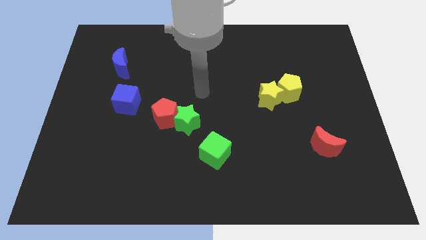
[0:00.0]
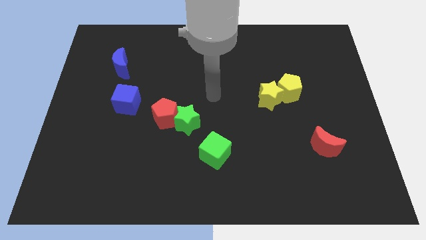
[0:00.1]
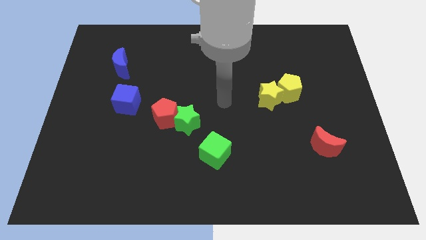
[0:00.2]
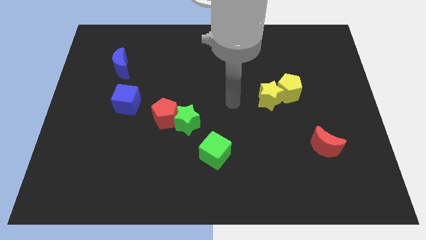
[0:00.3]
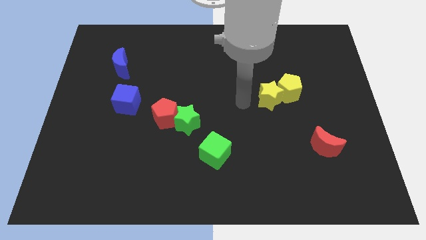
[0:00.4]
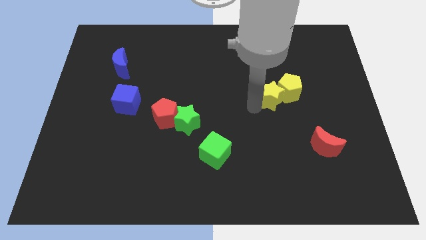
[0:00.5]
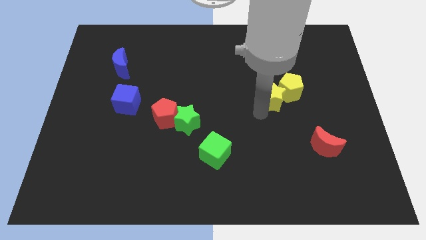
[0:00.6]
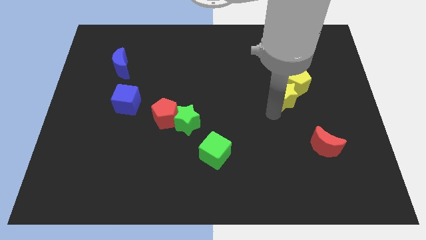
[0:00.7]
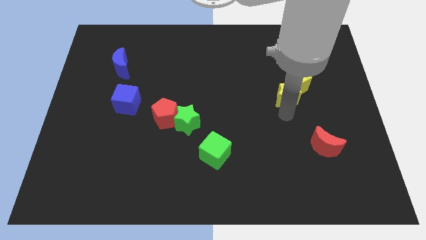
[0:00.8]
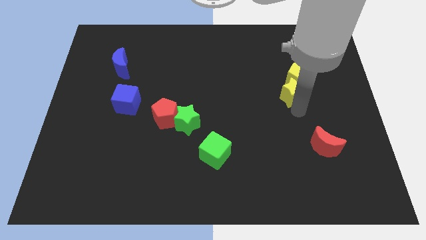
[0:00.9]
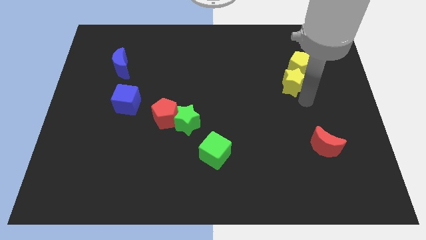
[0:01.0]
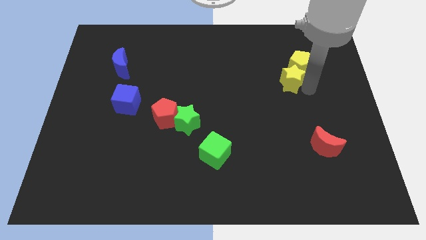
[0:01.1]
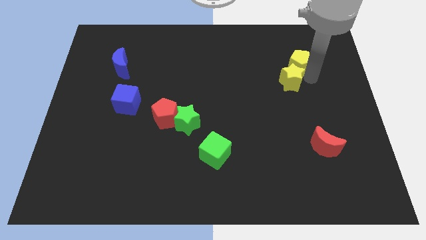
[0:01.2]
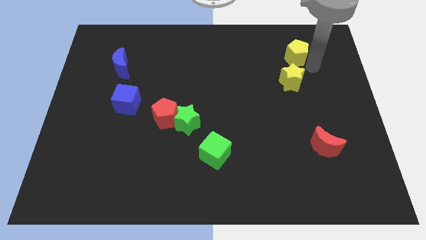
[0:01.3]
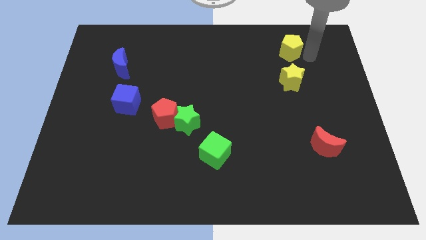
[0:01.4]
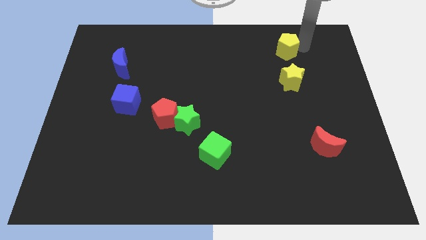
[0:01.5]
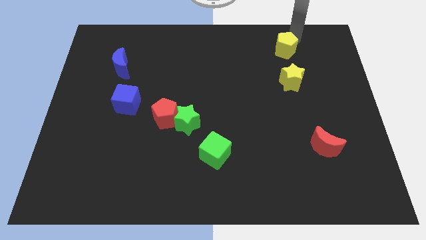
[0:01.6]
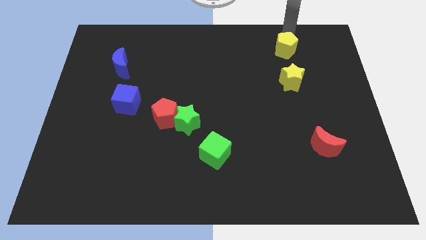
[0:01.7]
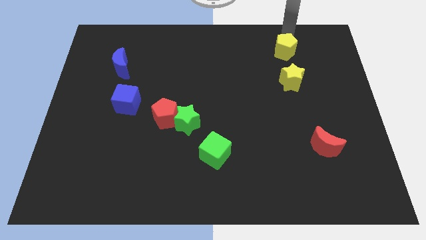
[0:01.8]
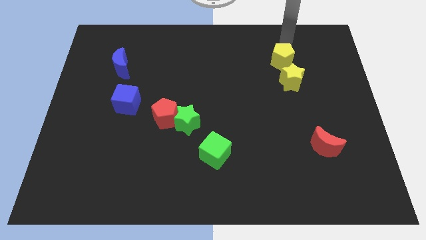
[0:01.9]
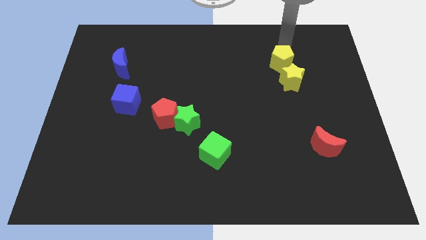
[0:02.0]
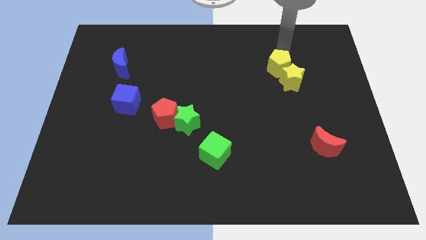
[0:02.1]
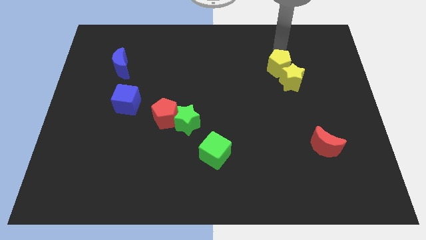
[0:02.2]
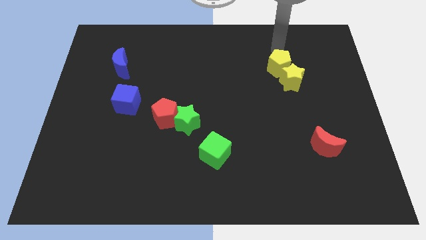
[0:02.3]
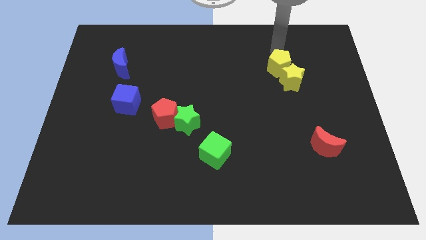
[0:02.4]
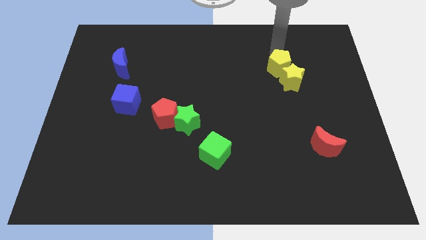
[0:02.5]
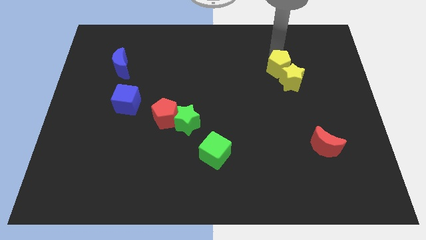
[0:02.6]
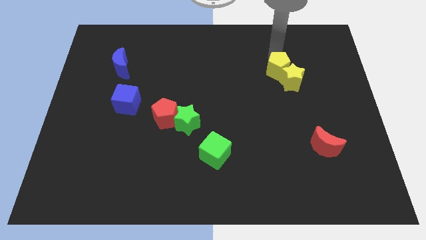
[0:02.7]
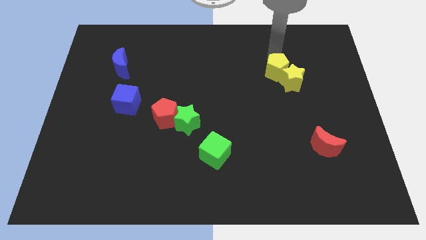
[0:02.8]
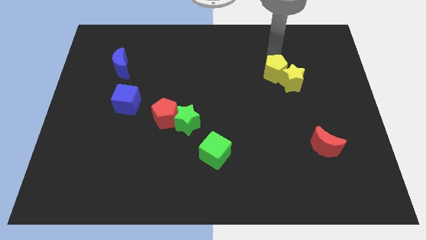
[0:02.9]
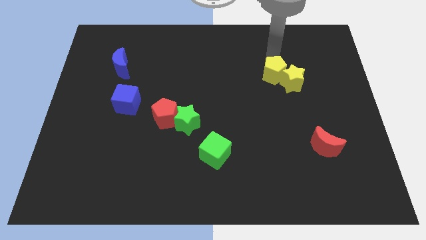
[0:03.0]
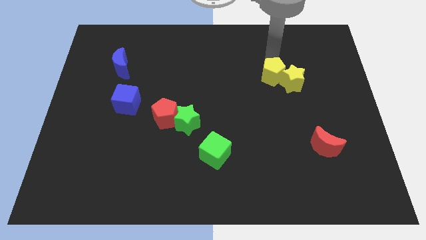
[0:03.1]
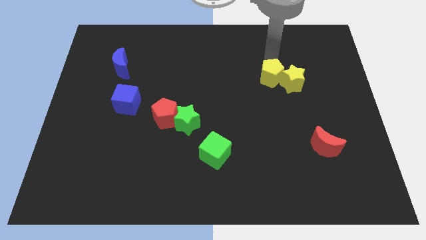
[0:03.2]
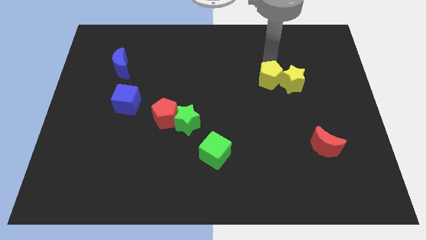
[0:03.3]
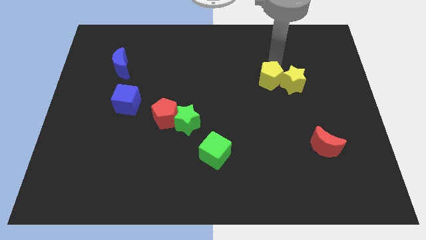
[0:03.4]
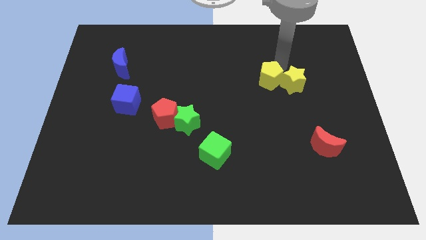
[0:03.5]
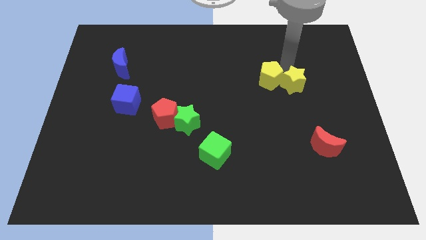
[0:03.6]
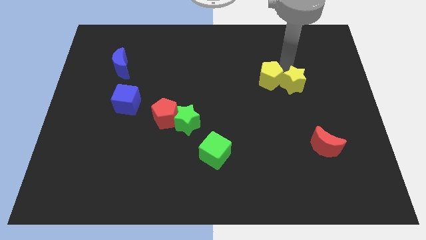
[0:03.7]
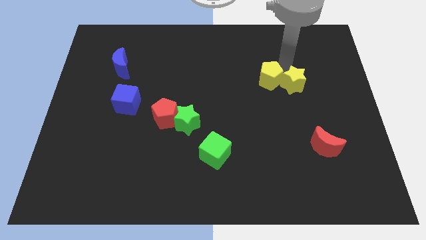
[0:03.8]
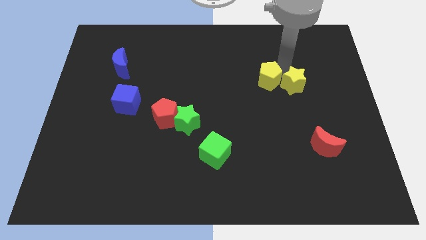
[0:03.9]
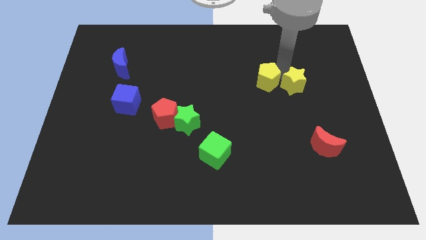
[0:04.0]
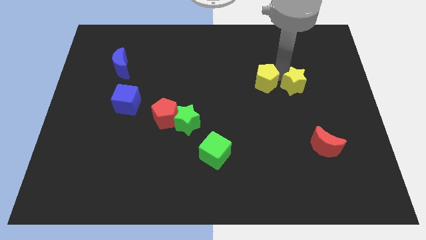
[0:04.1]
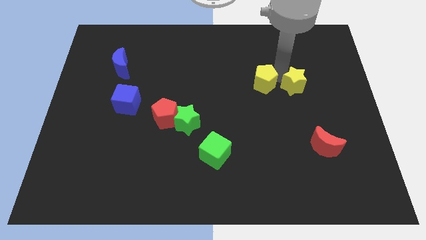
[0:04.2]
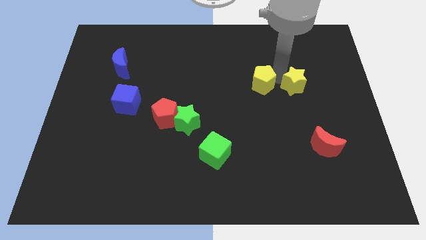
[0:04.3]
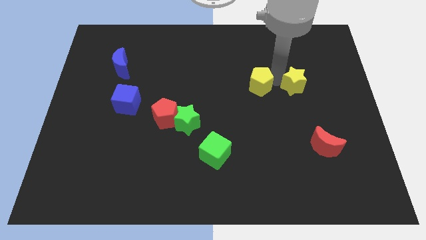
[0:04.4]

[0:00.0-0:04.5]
slightly slide the yellow pentagon left

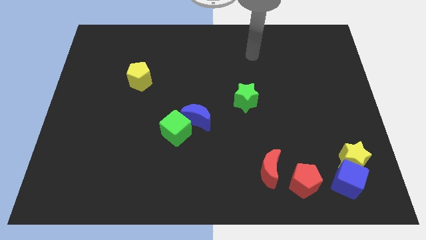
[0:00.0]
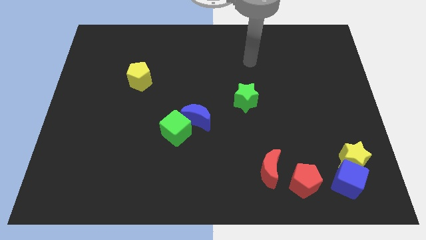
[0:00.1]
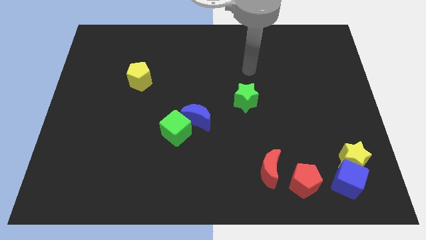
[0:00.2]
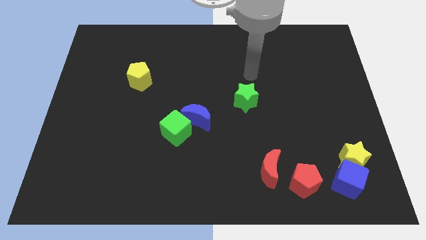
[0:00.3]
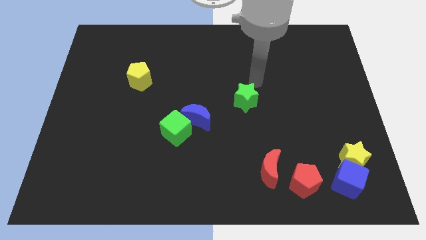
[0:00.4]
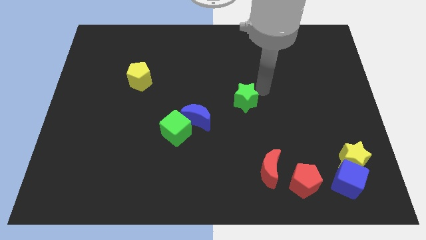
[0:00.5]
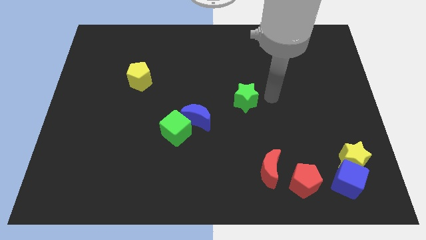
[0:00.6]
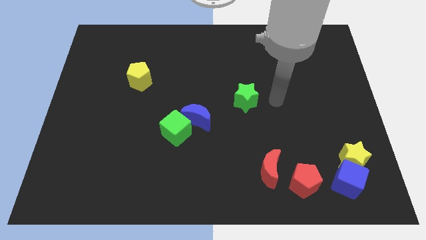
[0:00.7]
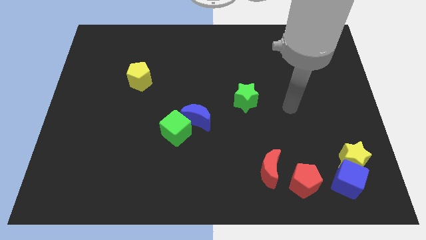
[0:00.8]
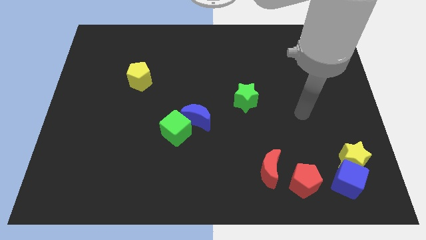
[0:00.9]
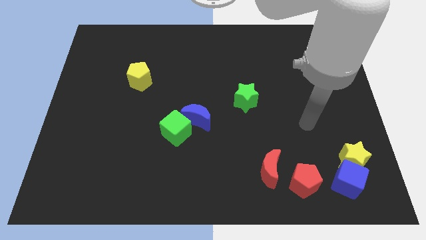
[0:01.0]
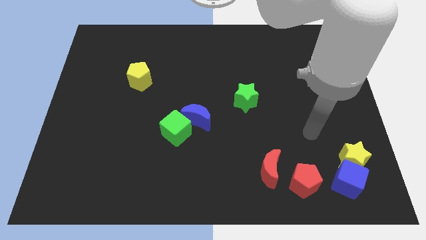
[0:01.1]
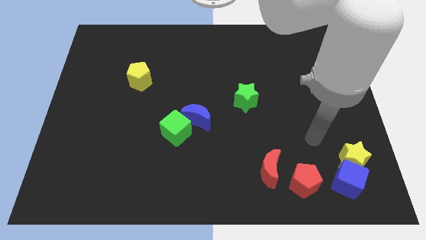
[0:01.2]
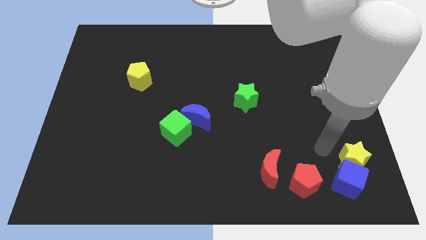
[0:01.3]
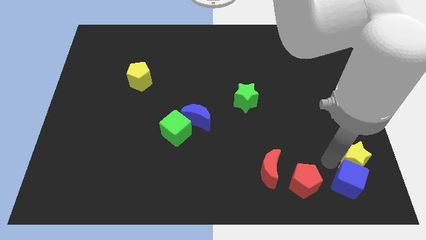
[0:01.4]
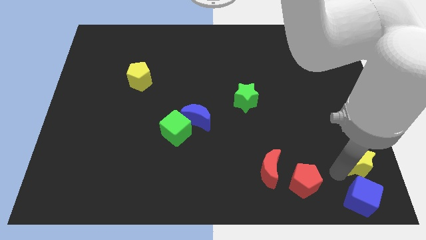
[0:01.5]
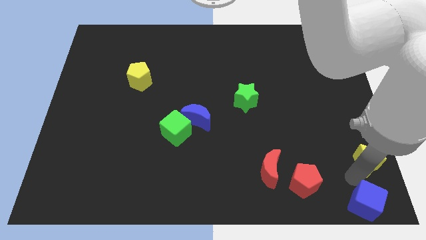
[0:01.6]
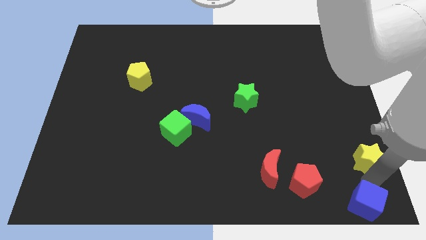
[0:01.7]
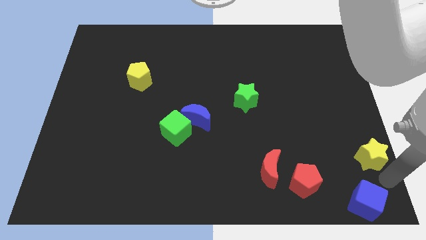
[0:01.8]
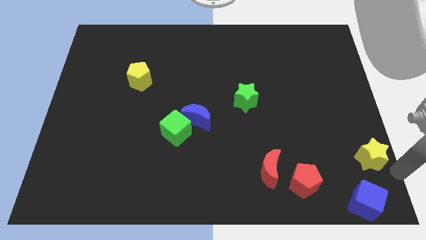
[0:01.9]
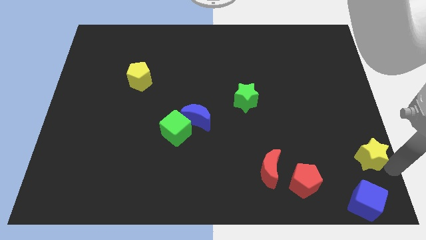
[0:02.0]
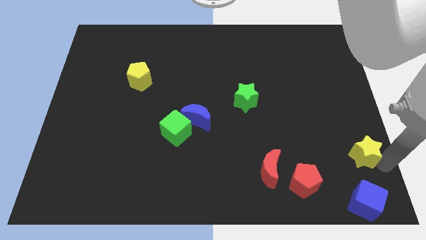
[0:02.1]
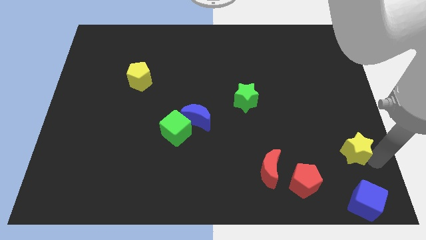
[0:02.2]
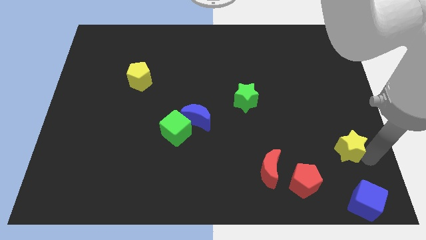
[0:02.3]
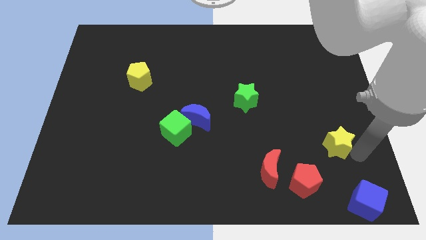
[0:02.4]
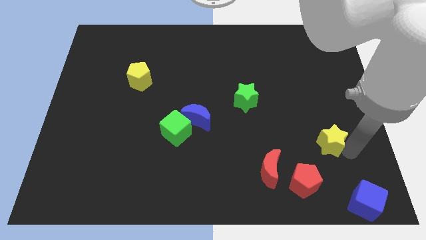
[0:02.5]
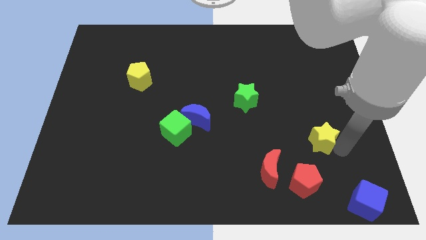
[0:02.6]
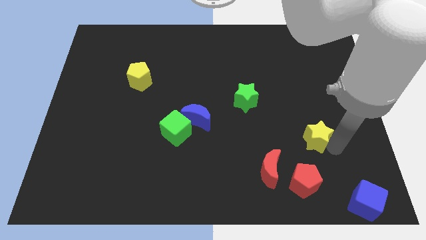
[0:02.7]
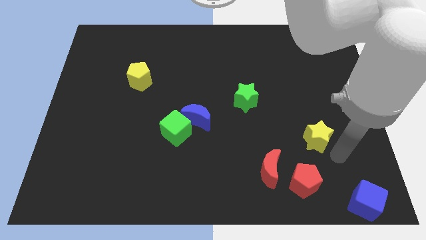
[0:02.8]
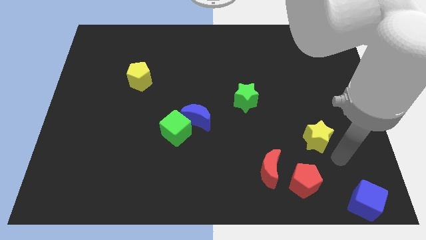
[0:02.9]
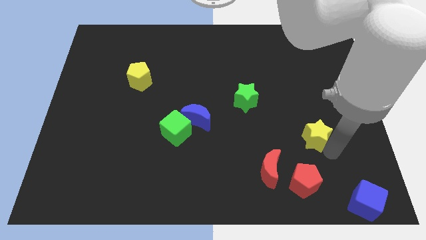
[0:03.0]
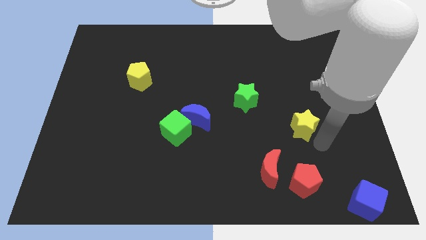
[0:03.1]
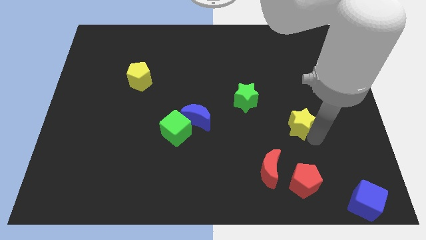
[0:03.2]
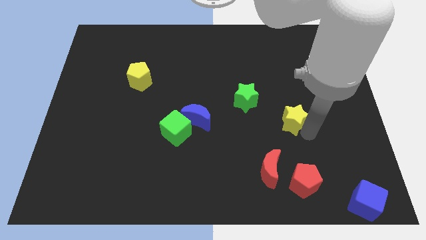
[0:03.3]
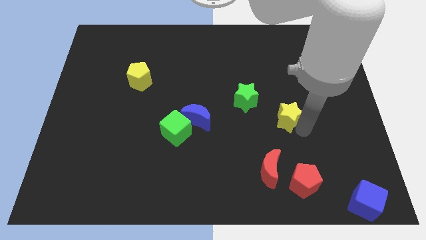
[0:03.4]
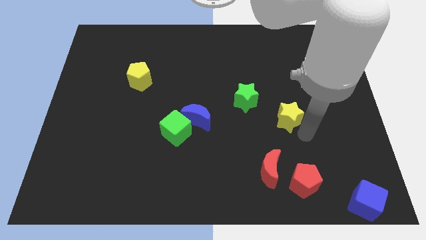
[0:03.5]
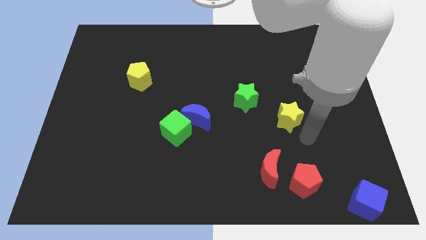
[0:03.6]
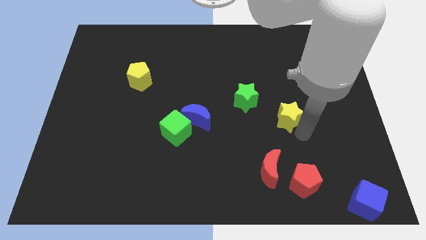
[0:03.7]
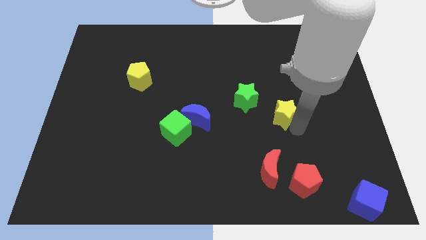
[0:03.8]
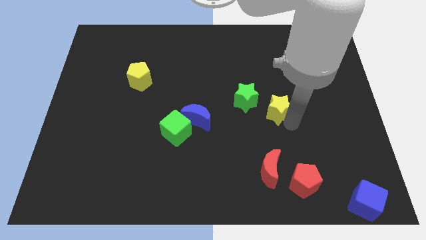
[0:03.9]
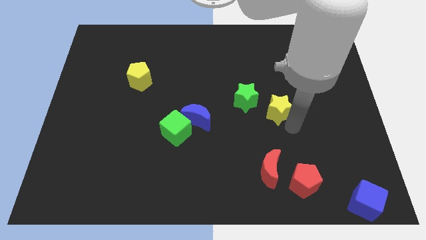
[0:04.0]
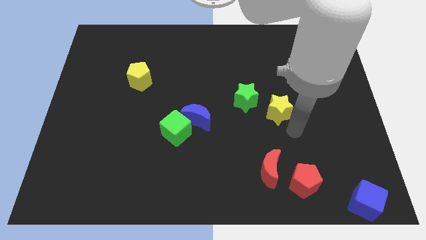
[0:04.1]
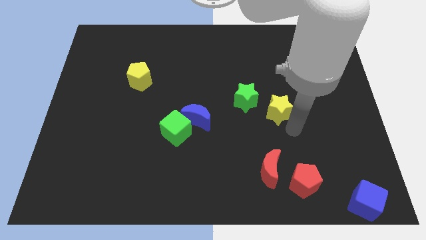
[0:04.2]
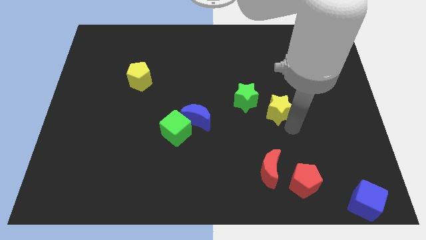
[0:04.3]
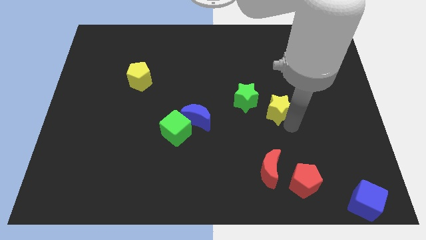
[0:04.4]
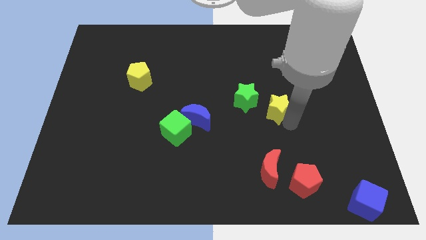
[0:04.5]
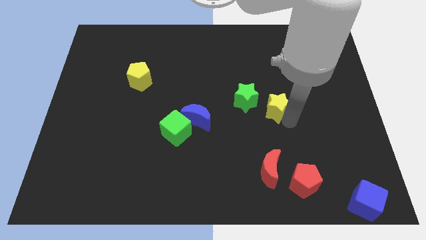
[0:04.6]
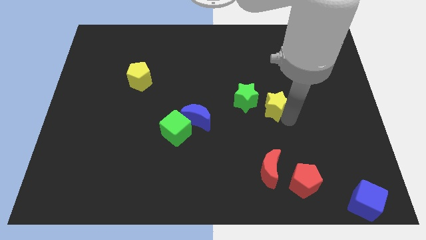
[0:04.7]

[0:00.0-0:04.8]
move the yellow star upwards and then left
